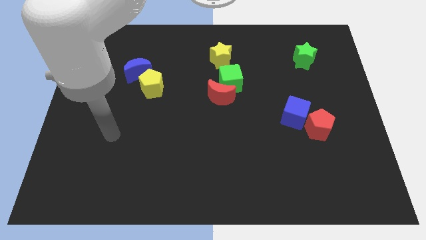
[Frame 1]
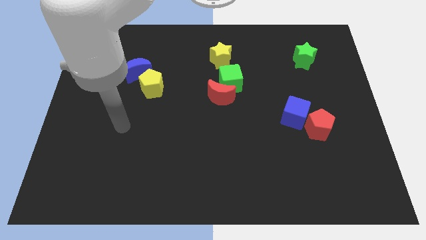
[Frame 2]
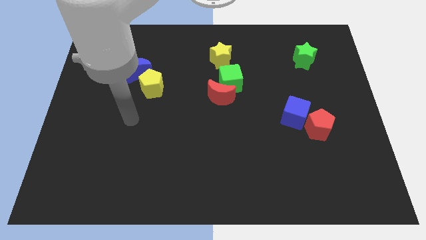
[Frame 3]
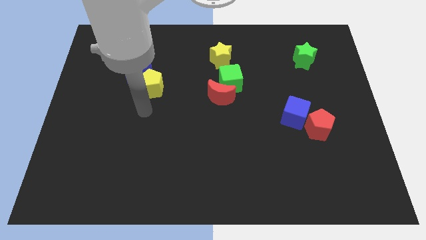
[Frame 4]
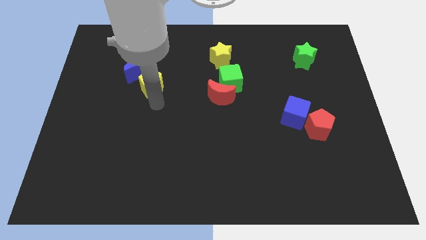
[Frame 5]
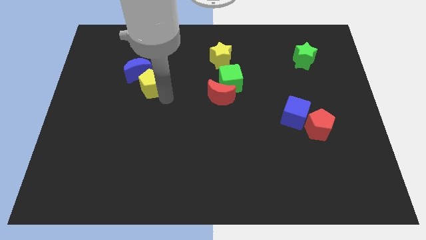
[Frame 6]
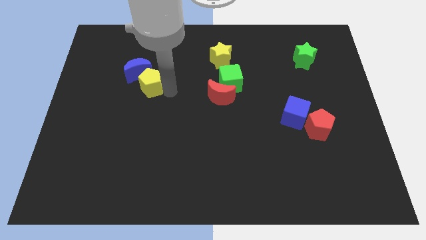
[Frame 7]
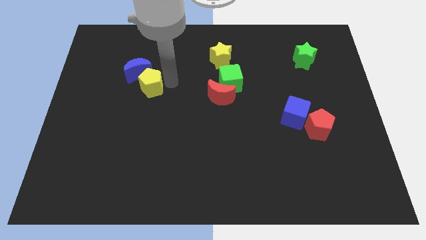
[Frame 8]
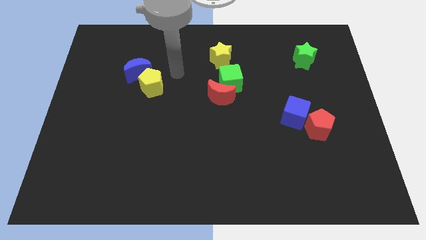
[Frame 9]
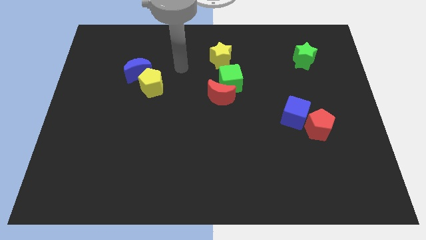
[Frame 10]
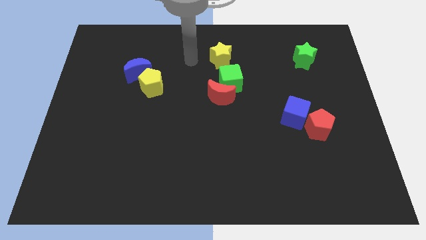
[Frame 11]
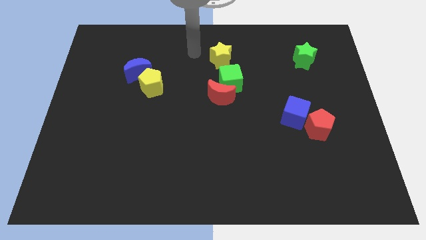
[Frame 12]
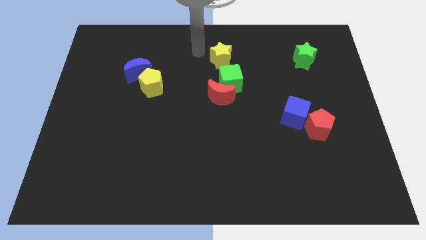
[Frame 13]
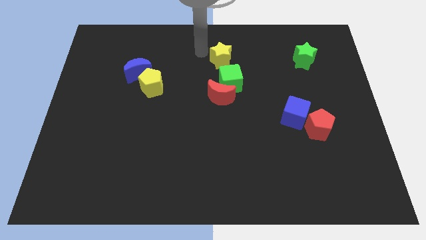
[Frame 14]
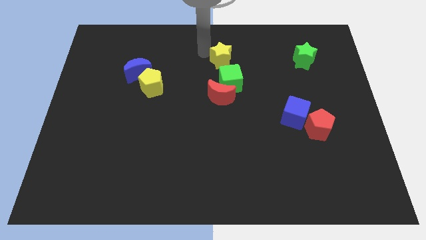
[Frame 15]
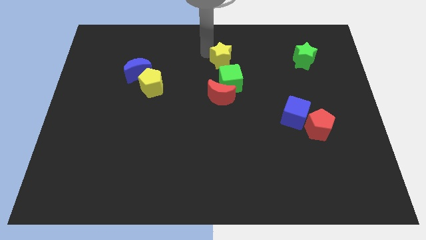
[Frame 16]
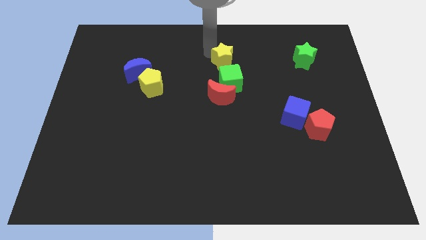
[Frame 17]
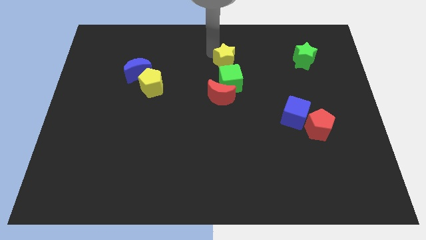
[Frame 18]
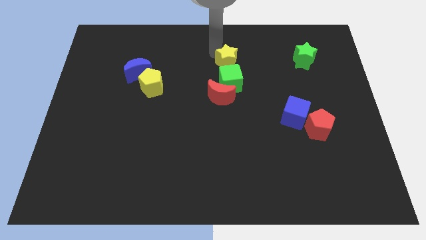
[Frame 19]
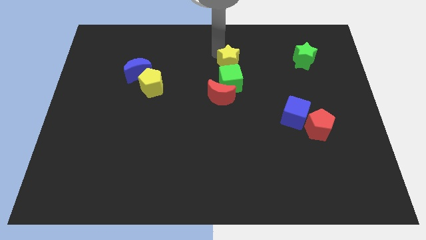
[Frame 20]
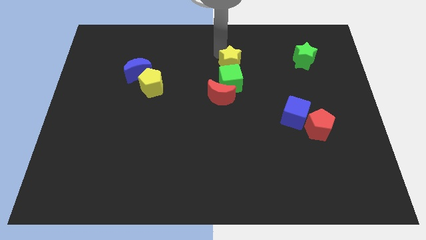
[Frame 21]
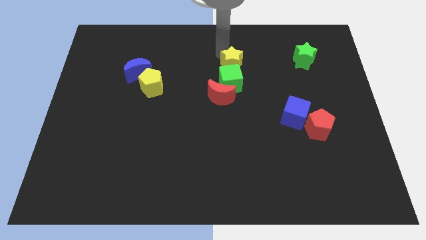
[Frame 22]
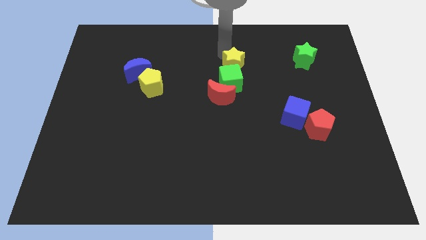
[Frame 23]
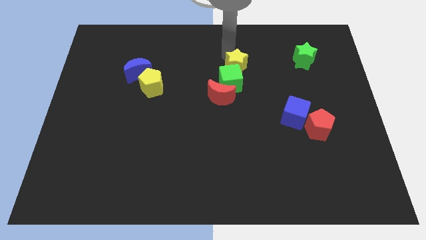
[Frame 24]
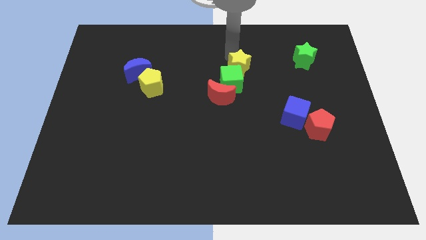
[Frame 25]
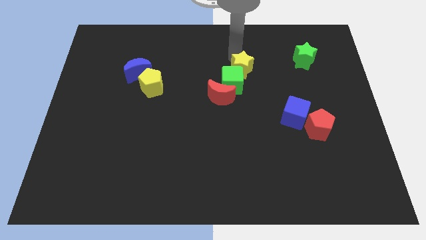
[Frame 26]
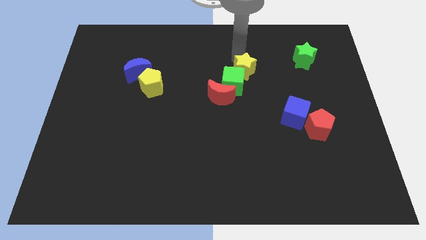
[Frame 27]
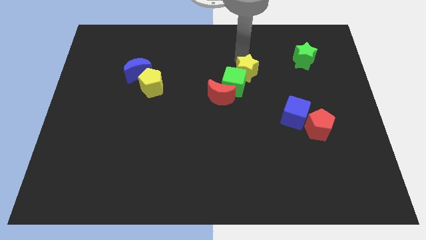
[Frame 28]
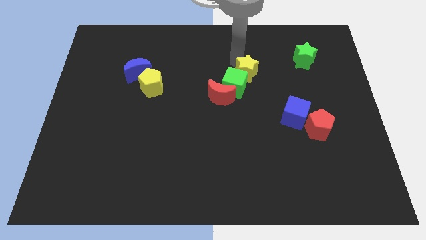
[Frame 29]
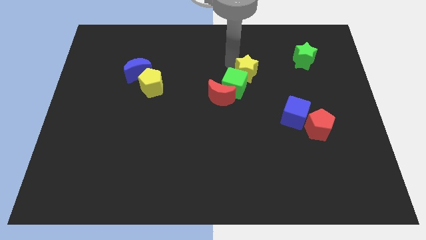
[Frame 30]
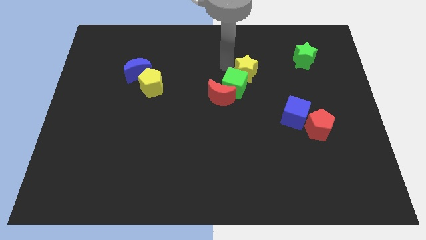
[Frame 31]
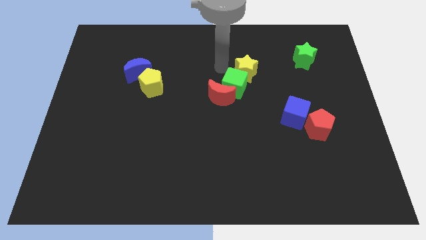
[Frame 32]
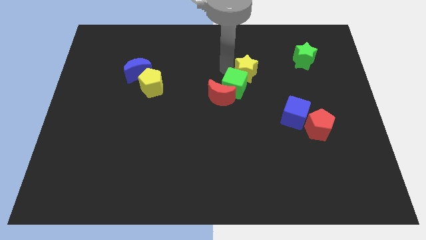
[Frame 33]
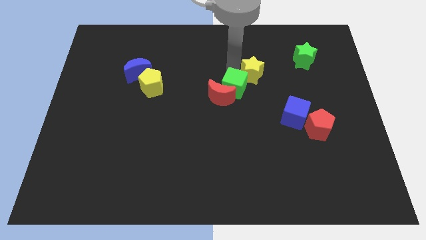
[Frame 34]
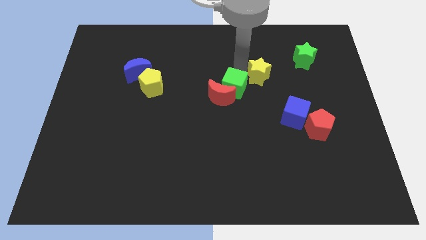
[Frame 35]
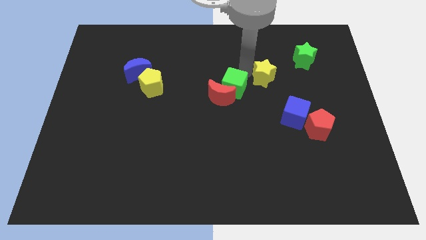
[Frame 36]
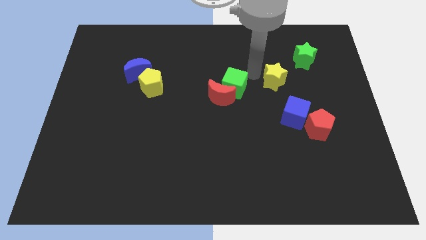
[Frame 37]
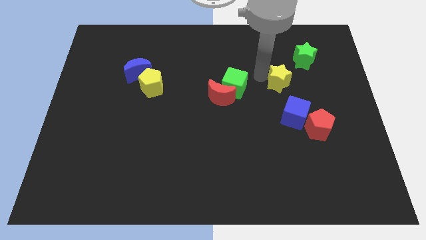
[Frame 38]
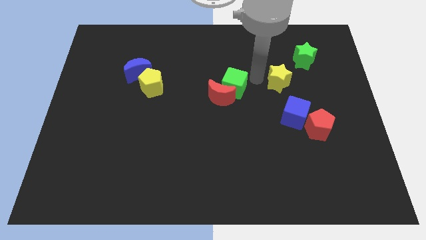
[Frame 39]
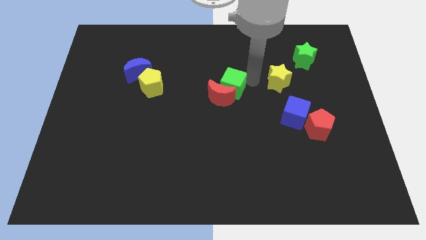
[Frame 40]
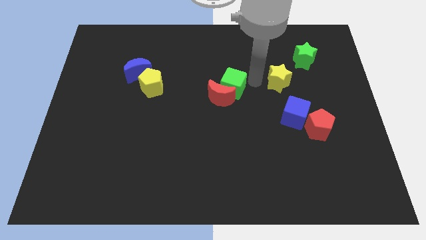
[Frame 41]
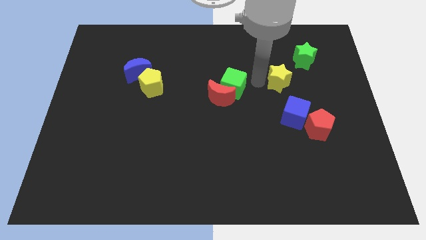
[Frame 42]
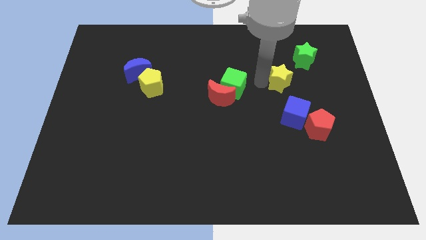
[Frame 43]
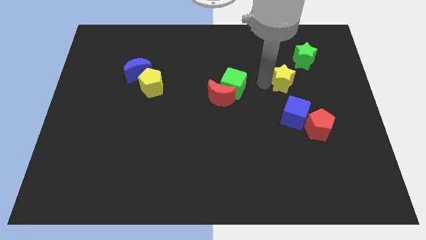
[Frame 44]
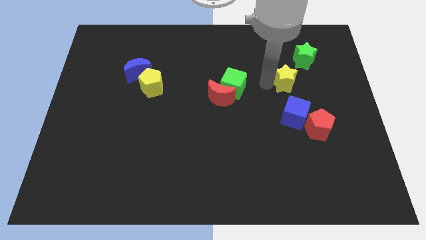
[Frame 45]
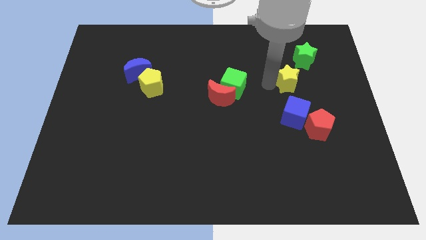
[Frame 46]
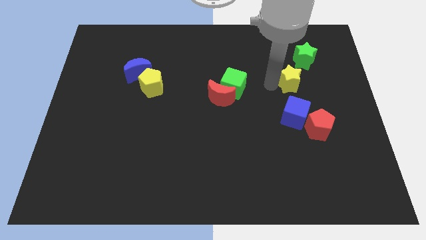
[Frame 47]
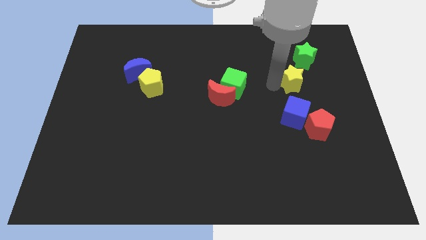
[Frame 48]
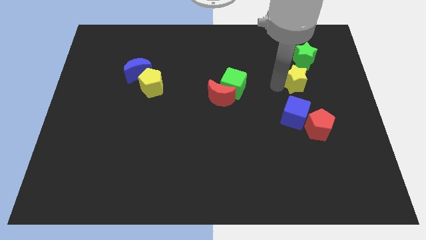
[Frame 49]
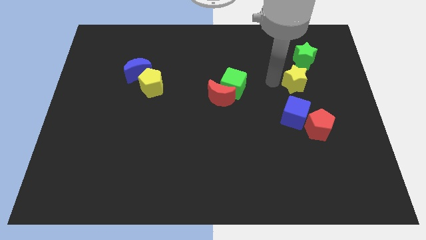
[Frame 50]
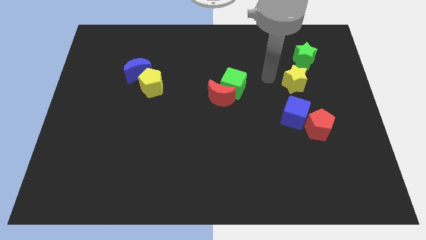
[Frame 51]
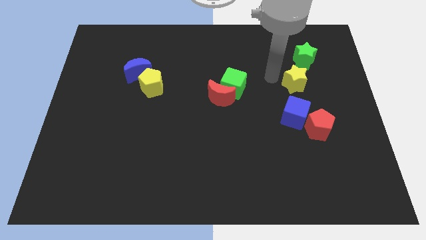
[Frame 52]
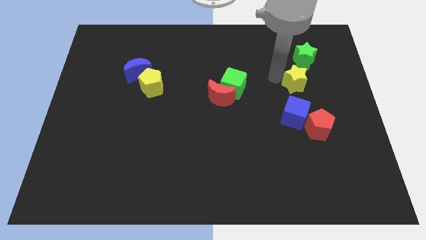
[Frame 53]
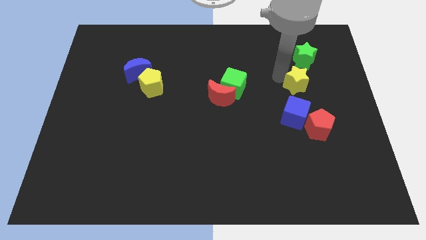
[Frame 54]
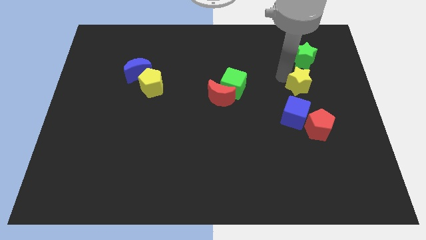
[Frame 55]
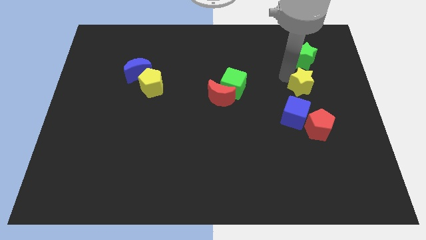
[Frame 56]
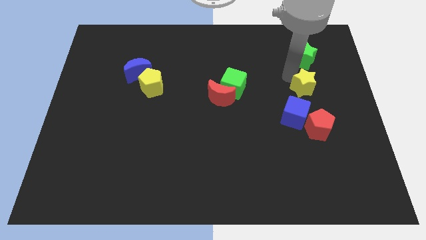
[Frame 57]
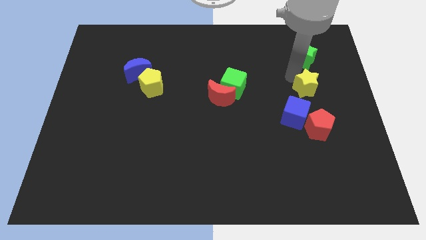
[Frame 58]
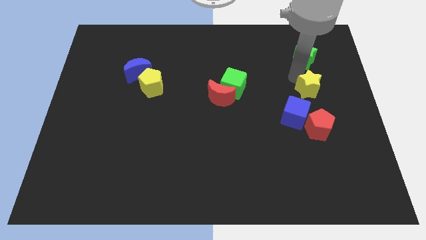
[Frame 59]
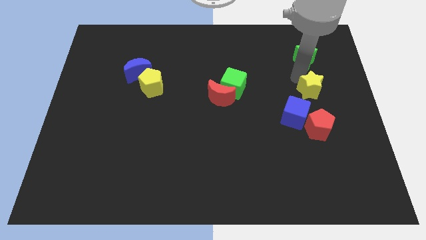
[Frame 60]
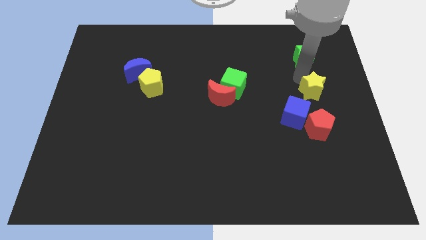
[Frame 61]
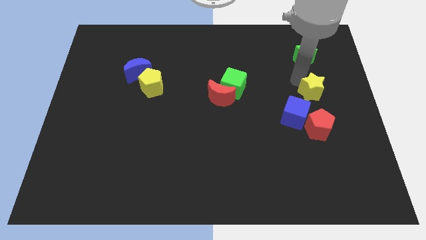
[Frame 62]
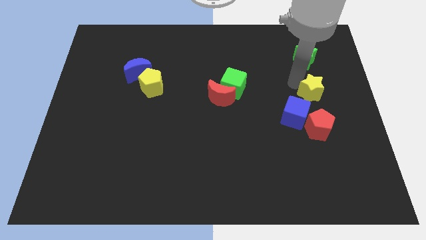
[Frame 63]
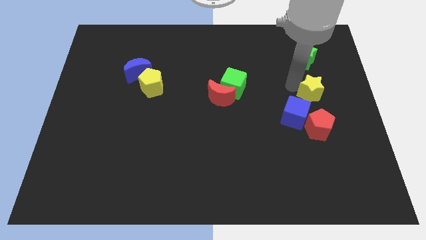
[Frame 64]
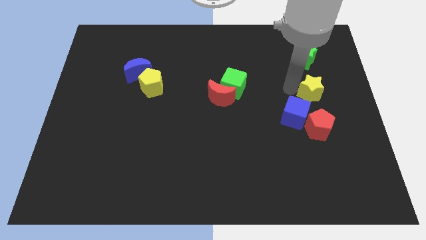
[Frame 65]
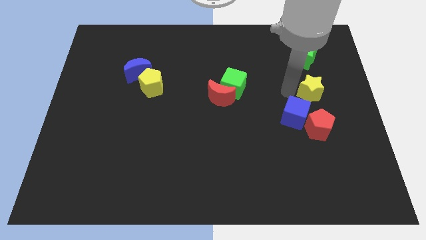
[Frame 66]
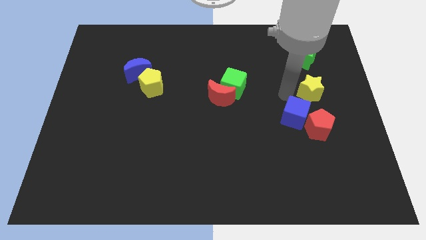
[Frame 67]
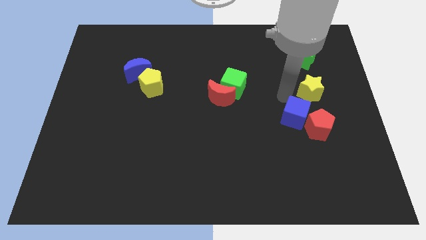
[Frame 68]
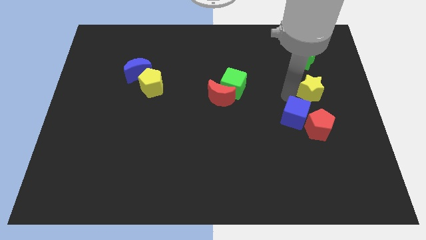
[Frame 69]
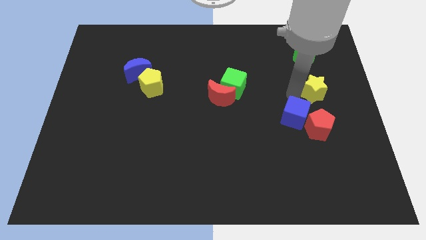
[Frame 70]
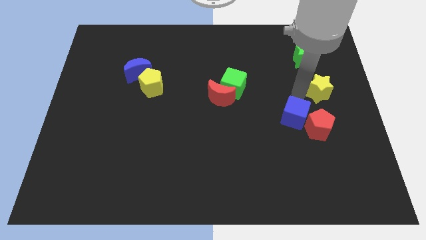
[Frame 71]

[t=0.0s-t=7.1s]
slide the yellow star to the center right
